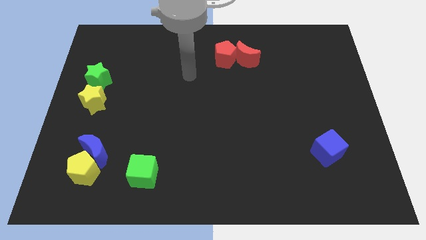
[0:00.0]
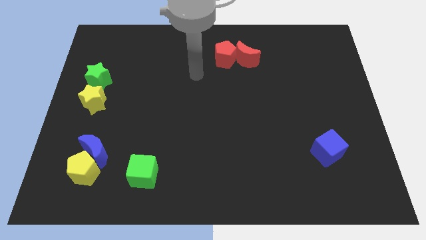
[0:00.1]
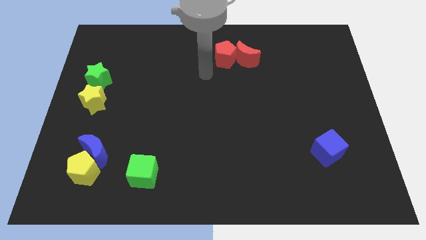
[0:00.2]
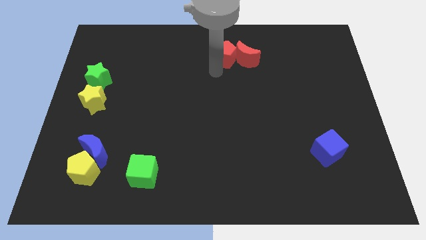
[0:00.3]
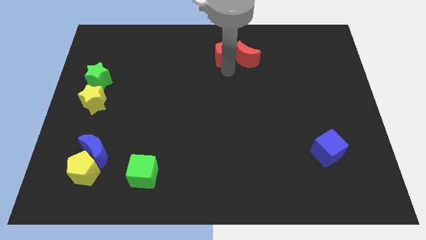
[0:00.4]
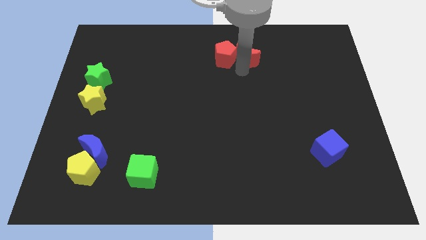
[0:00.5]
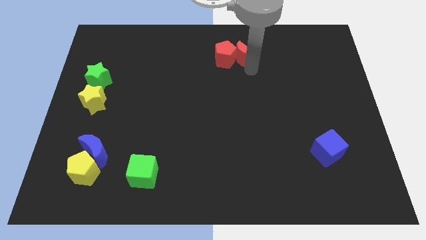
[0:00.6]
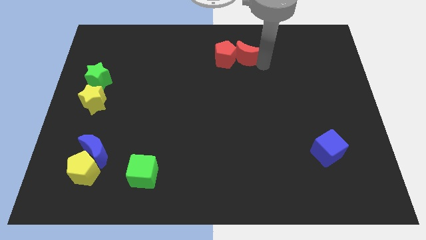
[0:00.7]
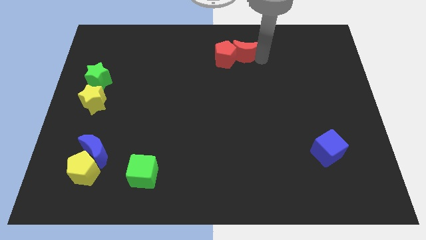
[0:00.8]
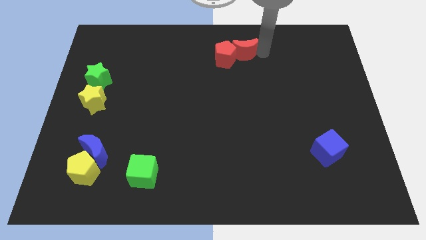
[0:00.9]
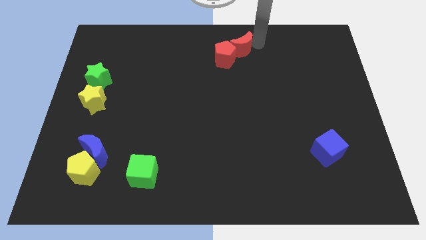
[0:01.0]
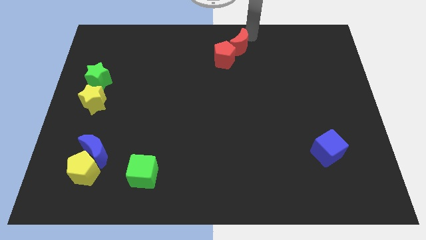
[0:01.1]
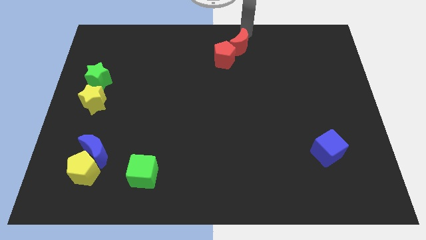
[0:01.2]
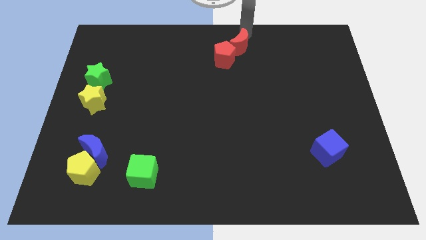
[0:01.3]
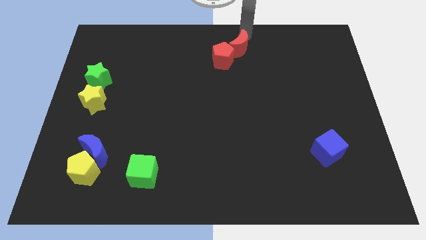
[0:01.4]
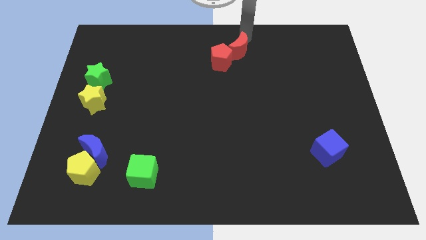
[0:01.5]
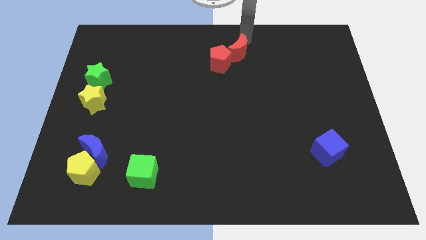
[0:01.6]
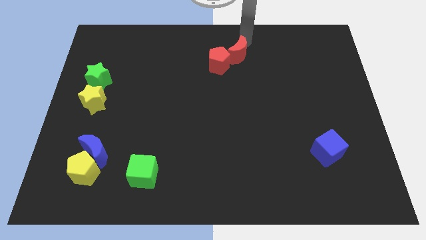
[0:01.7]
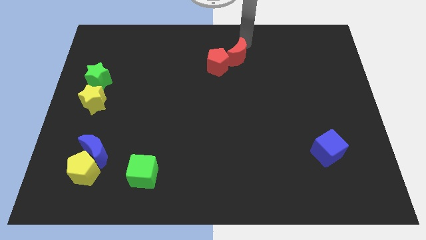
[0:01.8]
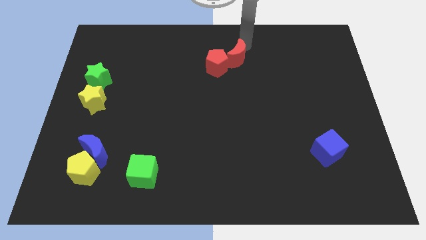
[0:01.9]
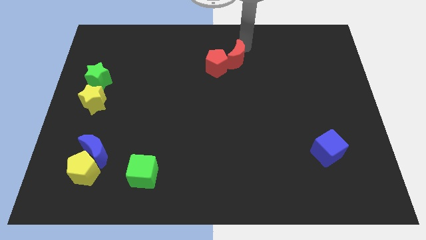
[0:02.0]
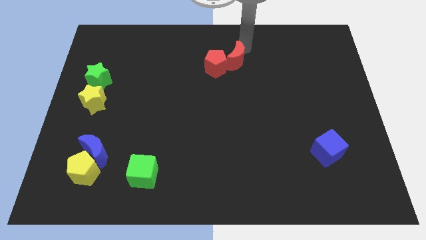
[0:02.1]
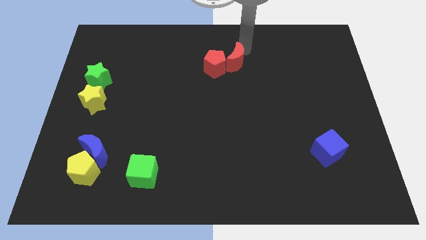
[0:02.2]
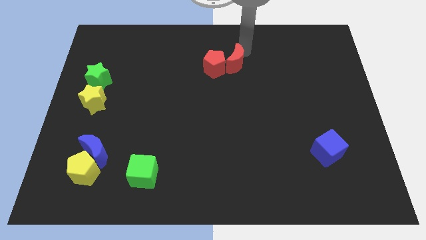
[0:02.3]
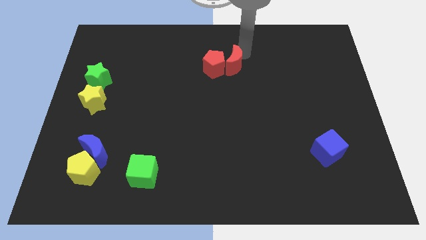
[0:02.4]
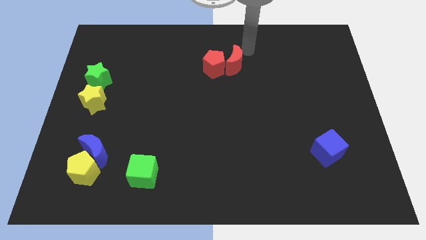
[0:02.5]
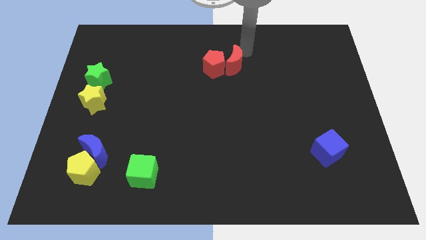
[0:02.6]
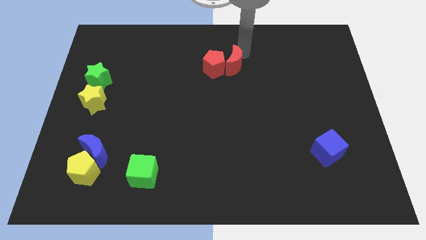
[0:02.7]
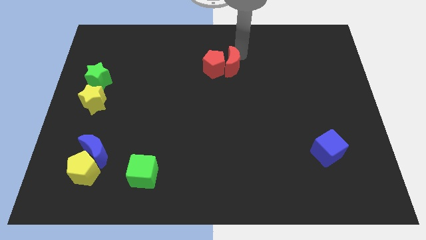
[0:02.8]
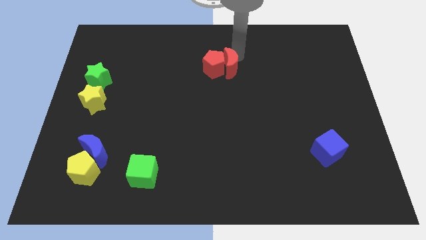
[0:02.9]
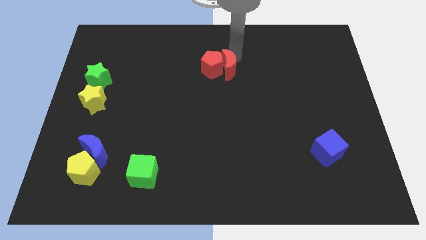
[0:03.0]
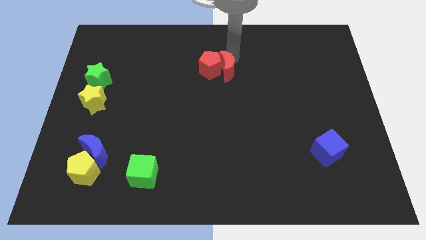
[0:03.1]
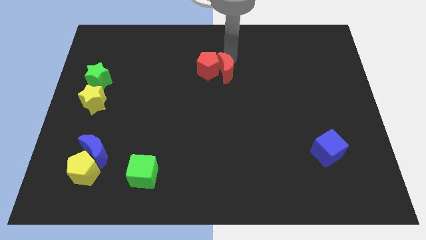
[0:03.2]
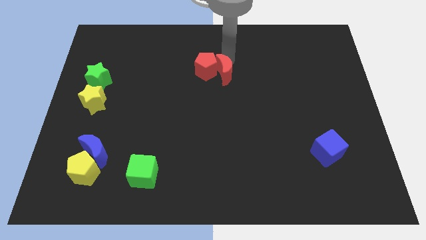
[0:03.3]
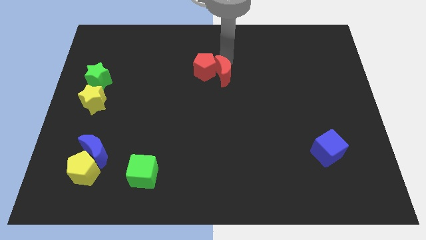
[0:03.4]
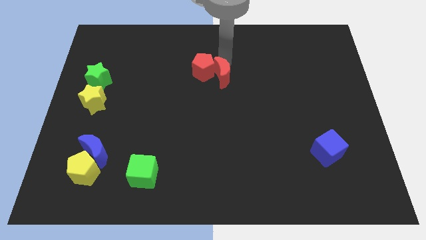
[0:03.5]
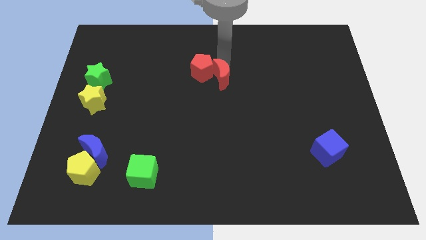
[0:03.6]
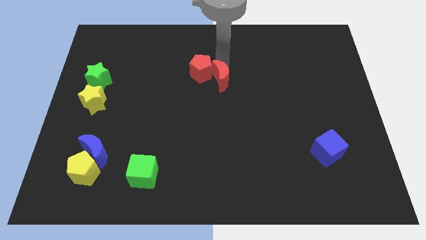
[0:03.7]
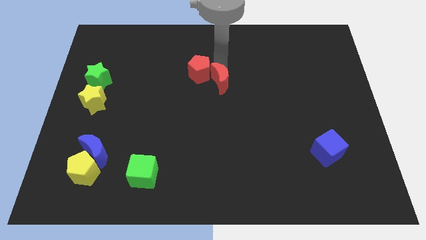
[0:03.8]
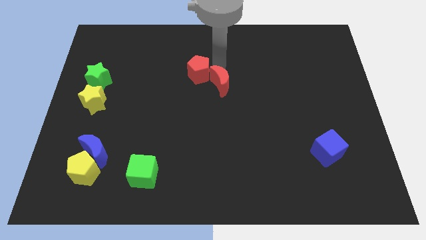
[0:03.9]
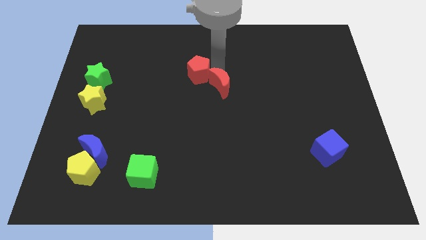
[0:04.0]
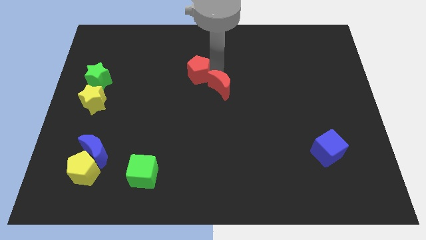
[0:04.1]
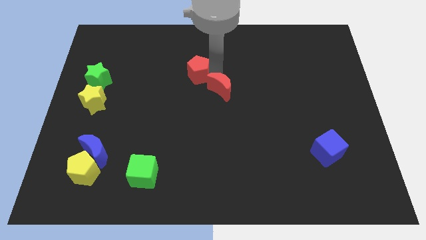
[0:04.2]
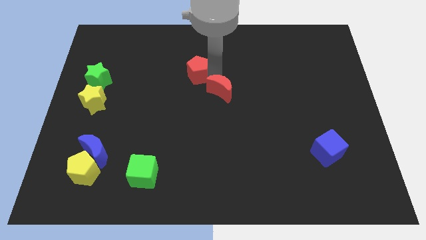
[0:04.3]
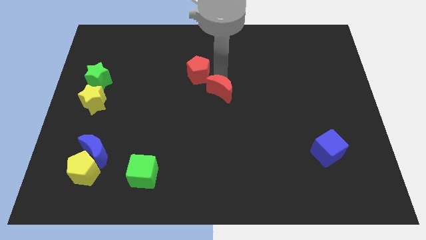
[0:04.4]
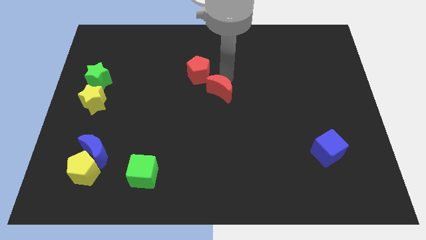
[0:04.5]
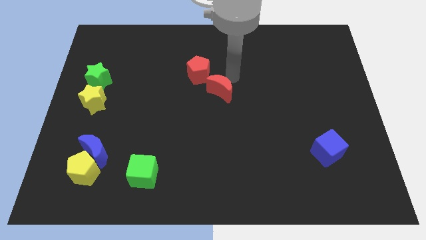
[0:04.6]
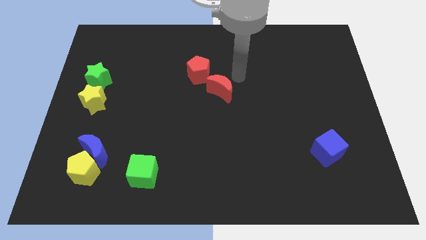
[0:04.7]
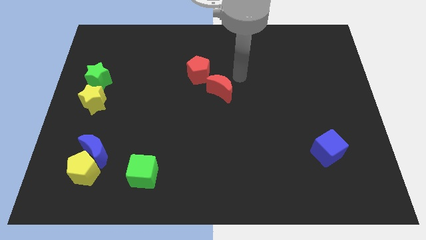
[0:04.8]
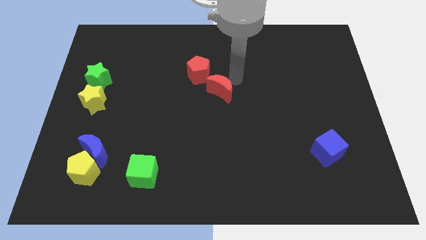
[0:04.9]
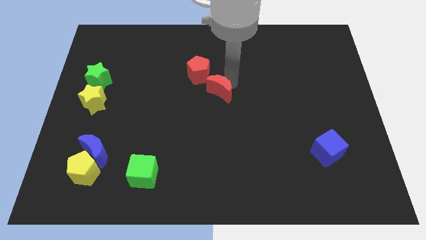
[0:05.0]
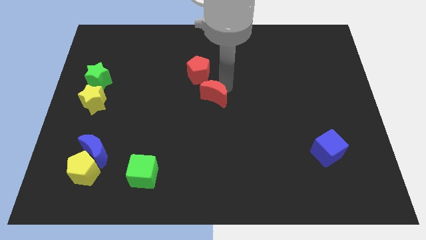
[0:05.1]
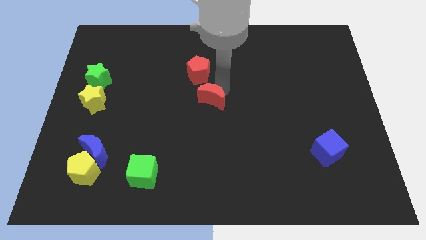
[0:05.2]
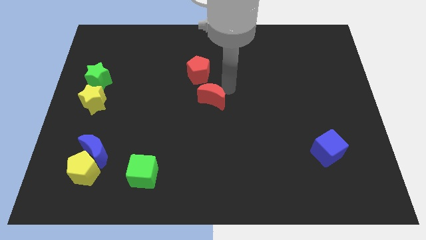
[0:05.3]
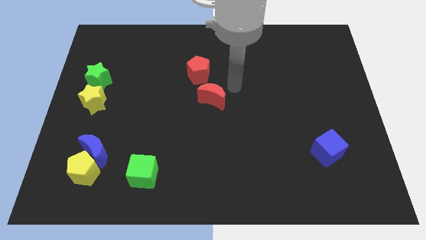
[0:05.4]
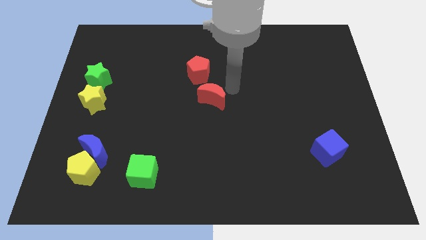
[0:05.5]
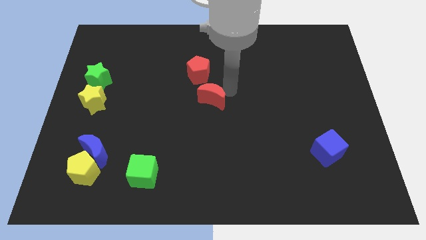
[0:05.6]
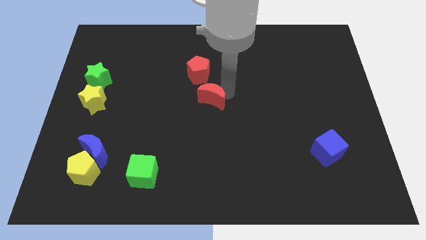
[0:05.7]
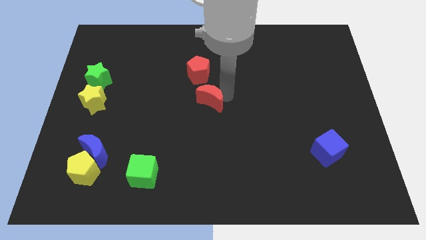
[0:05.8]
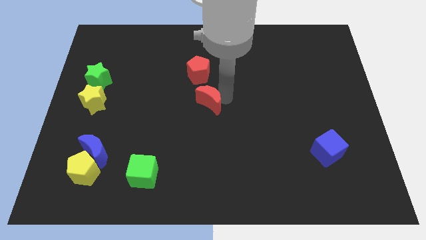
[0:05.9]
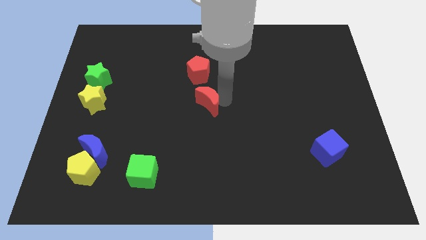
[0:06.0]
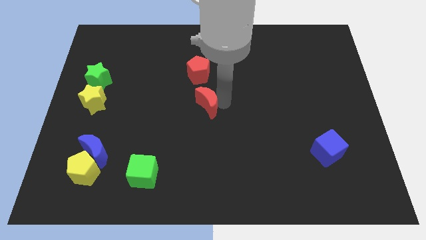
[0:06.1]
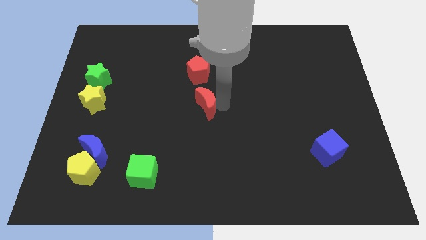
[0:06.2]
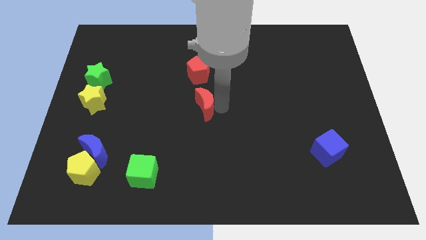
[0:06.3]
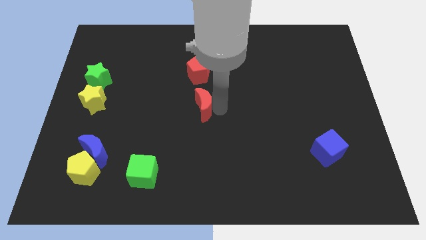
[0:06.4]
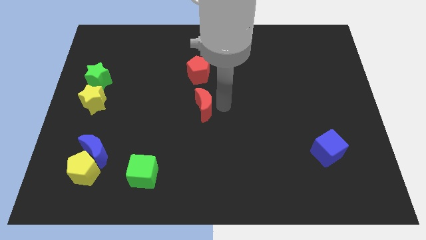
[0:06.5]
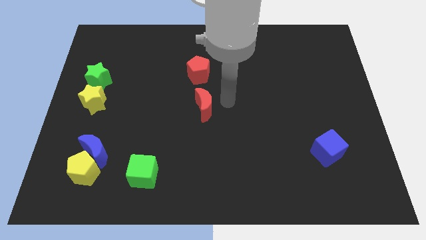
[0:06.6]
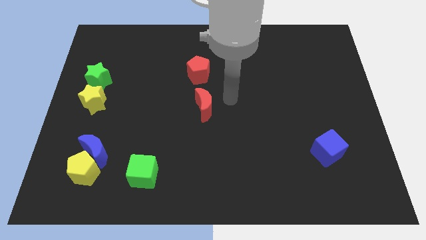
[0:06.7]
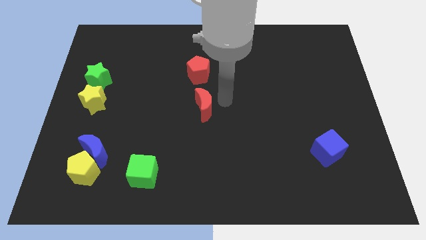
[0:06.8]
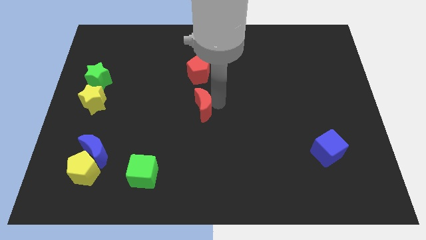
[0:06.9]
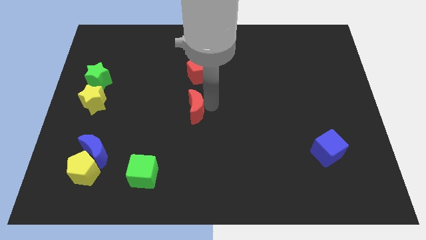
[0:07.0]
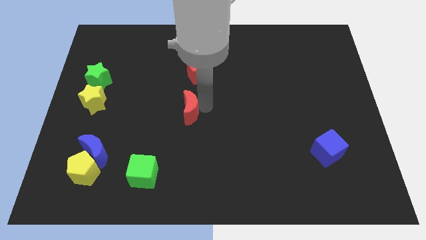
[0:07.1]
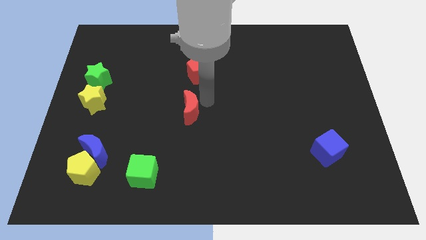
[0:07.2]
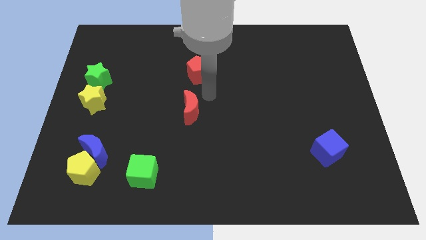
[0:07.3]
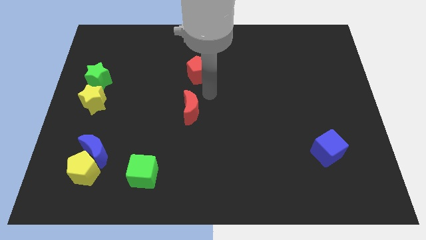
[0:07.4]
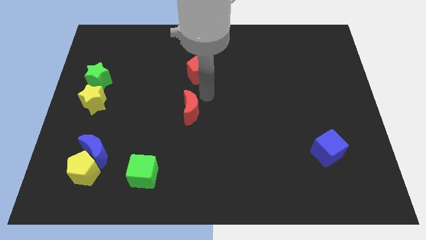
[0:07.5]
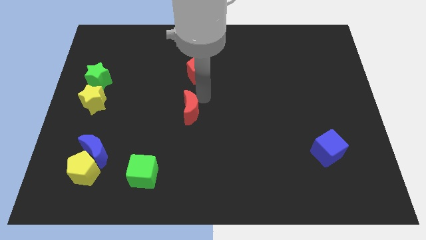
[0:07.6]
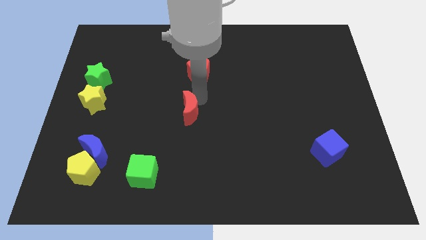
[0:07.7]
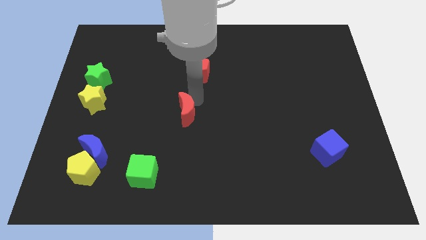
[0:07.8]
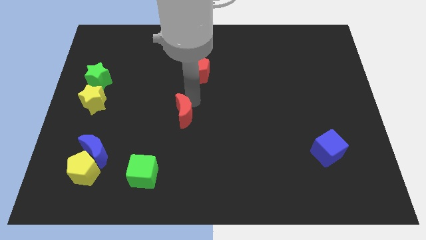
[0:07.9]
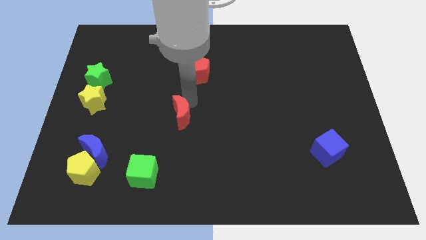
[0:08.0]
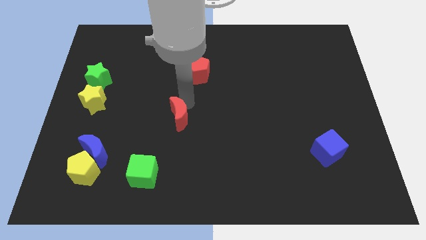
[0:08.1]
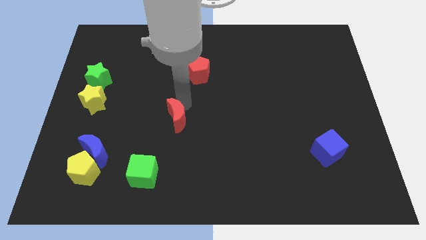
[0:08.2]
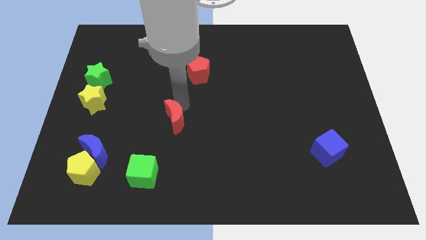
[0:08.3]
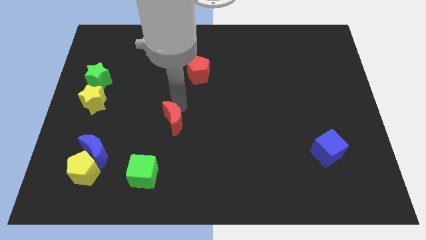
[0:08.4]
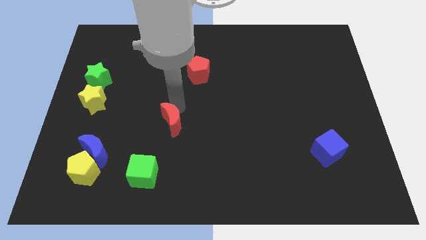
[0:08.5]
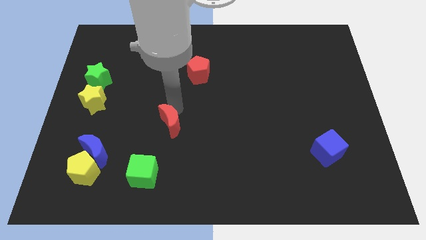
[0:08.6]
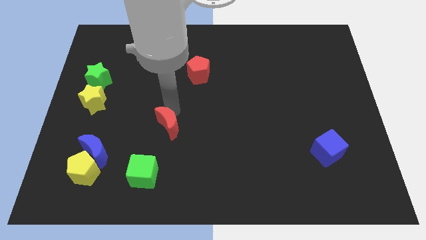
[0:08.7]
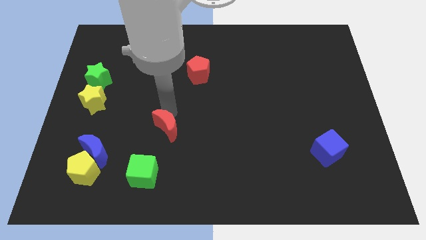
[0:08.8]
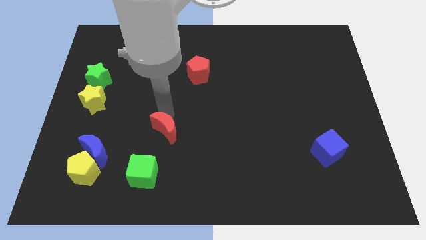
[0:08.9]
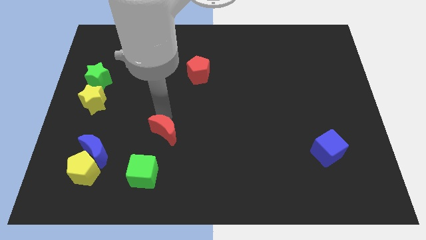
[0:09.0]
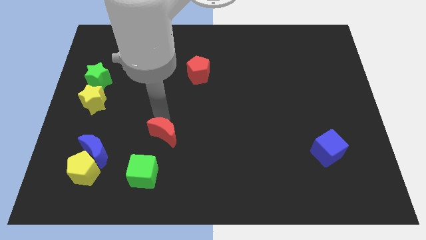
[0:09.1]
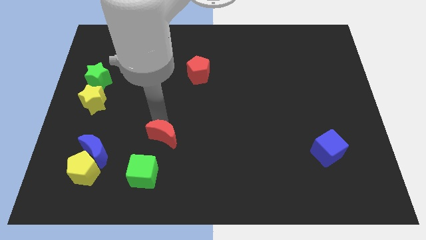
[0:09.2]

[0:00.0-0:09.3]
put the red moon right of the blue moon
